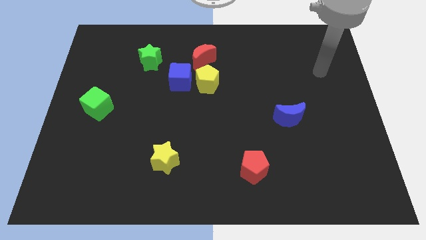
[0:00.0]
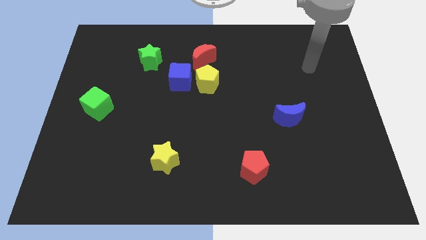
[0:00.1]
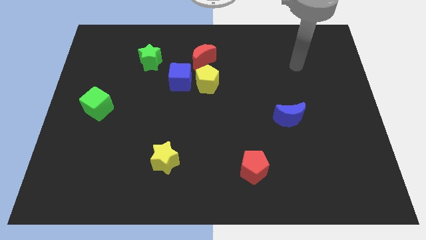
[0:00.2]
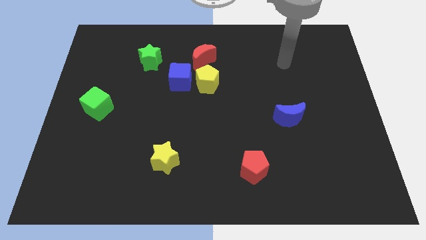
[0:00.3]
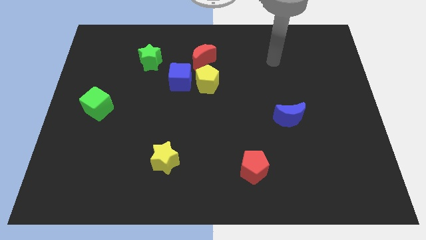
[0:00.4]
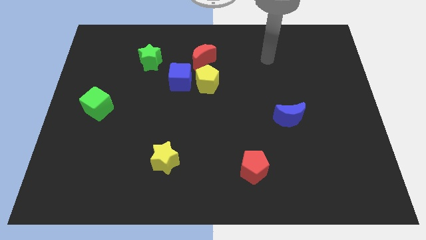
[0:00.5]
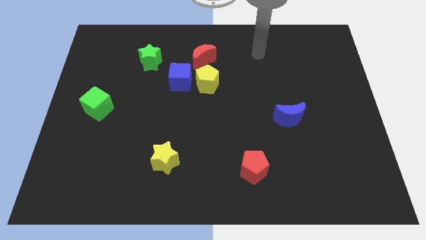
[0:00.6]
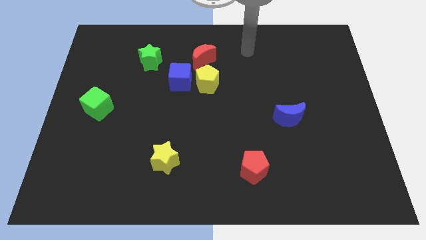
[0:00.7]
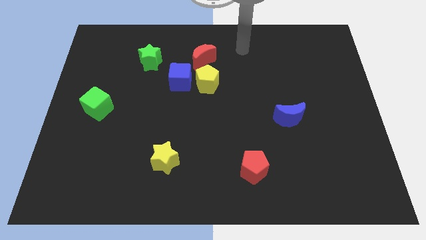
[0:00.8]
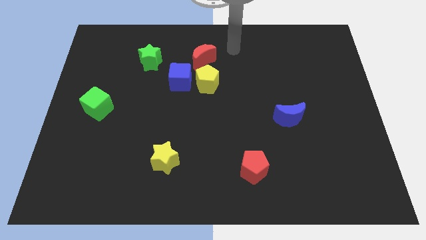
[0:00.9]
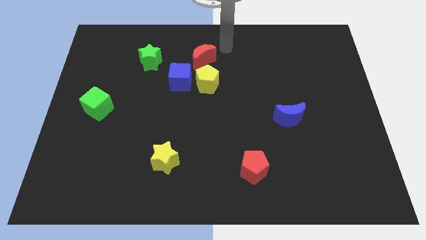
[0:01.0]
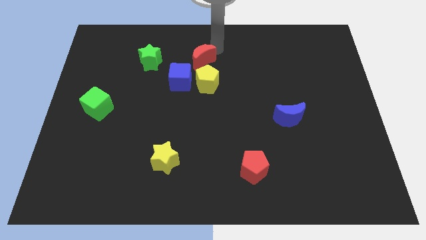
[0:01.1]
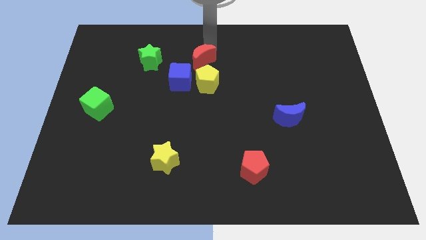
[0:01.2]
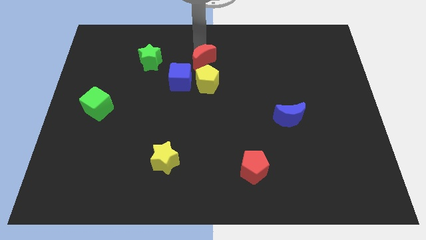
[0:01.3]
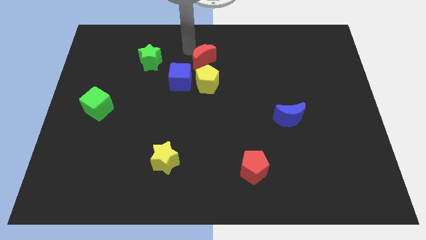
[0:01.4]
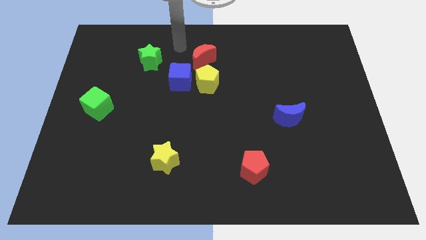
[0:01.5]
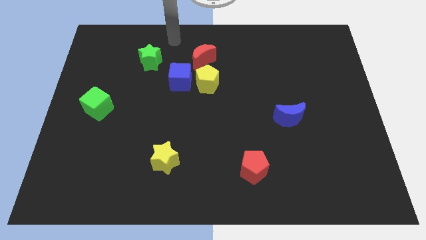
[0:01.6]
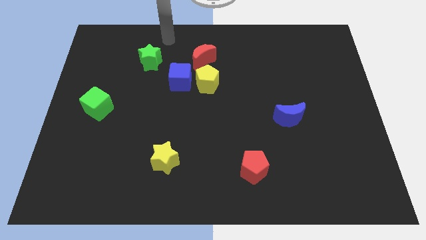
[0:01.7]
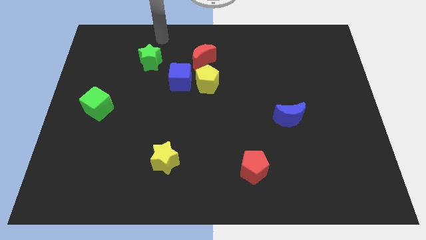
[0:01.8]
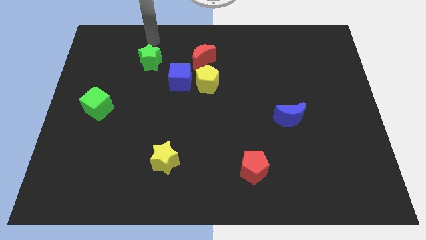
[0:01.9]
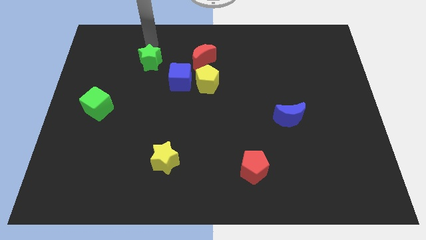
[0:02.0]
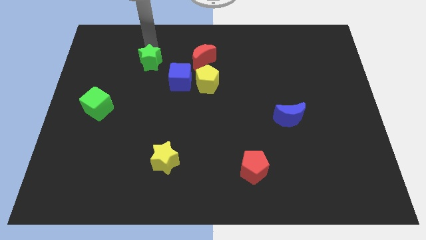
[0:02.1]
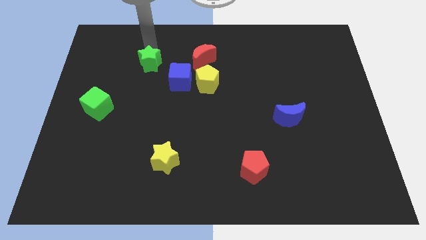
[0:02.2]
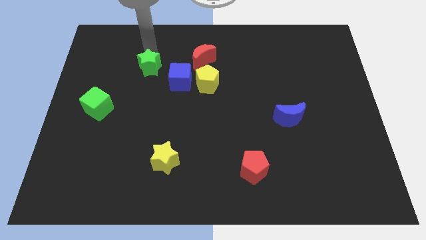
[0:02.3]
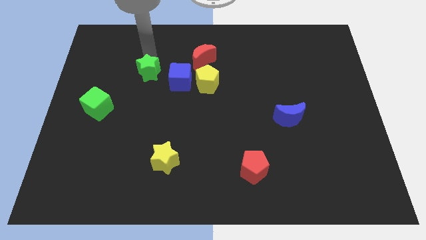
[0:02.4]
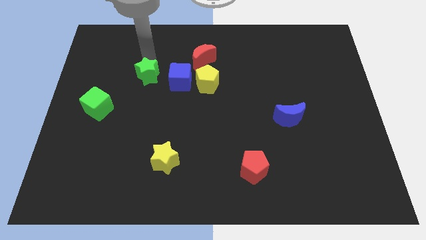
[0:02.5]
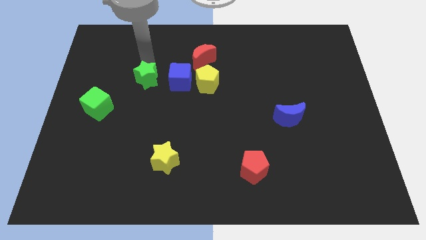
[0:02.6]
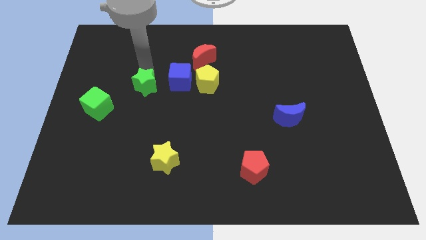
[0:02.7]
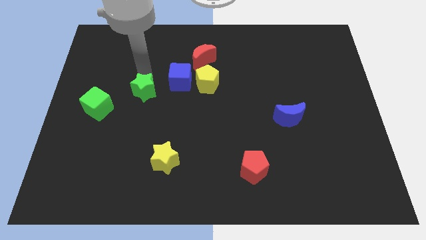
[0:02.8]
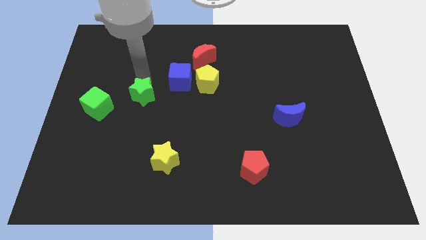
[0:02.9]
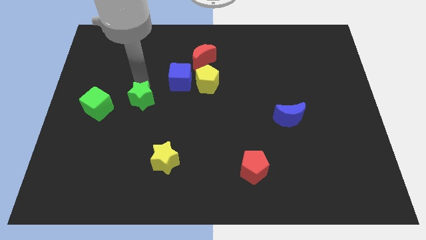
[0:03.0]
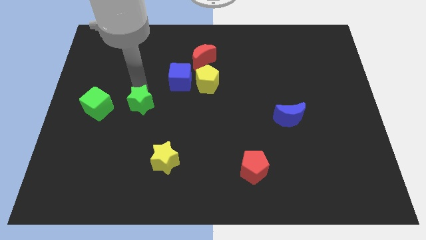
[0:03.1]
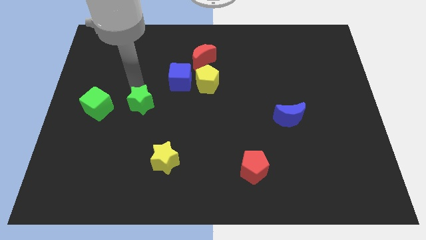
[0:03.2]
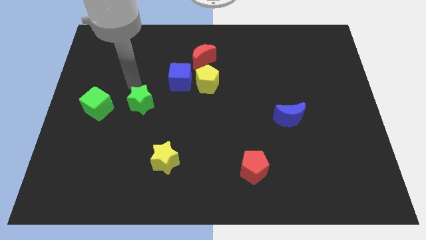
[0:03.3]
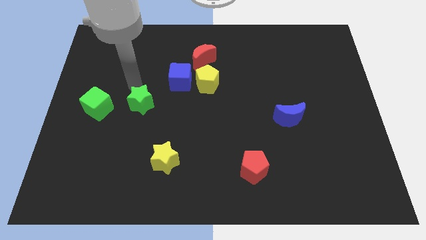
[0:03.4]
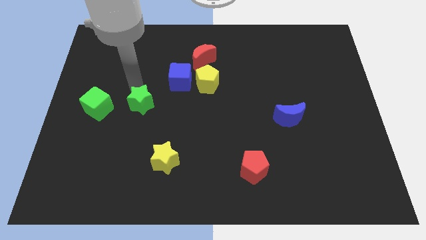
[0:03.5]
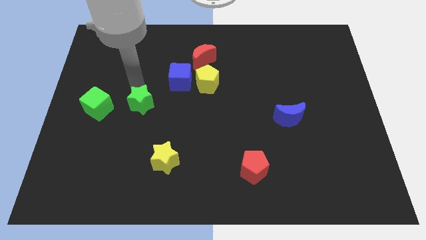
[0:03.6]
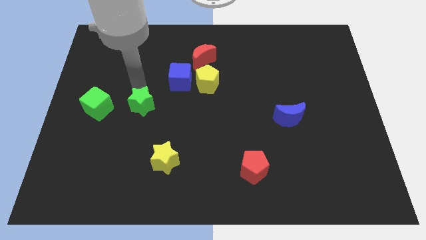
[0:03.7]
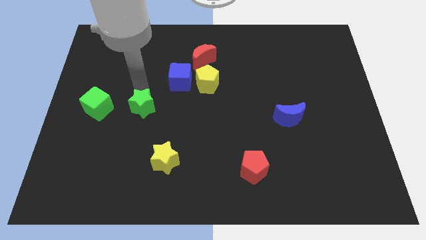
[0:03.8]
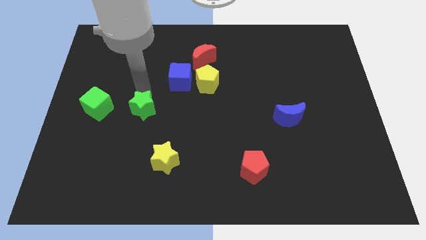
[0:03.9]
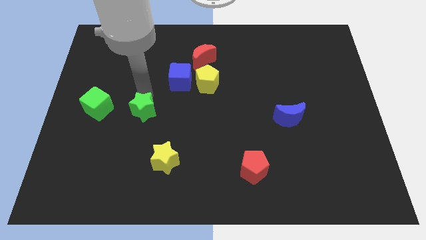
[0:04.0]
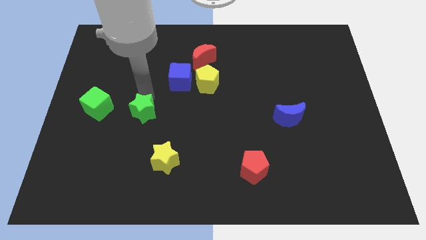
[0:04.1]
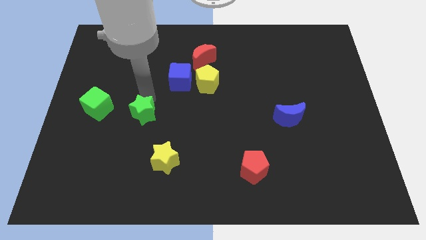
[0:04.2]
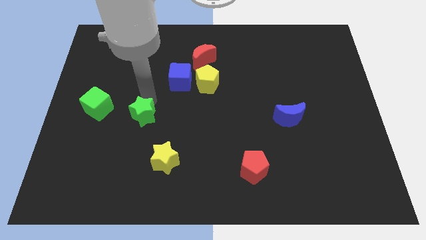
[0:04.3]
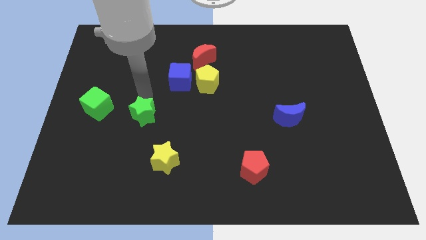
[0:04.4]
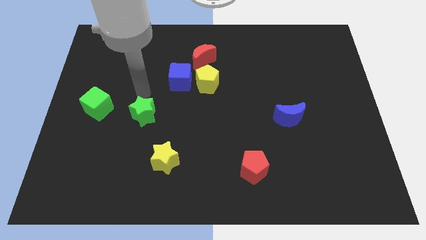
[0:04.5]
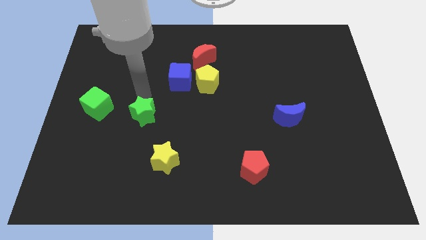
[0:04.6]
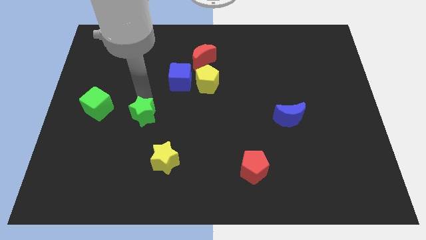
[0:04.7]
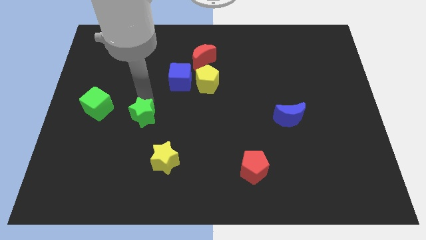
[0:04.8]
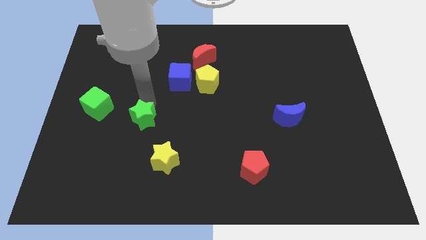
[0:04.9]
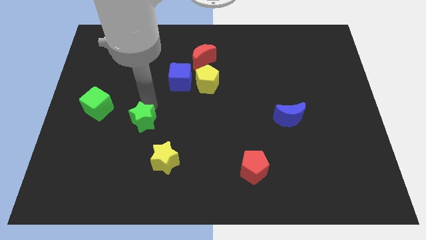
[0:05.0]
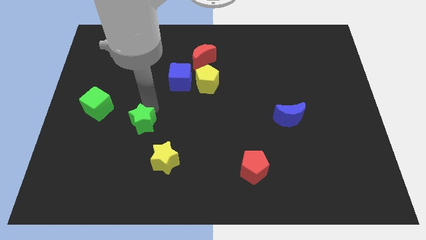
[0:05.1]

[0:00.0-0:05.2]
move the green star downwards

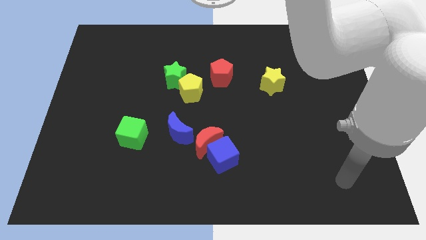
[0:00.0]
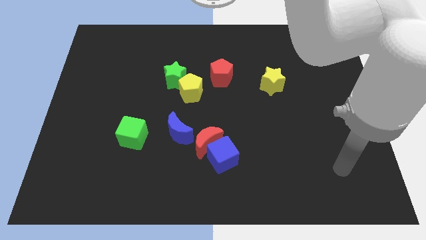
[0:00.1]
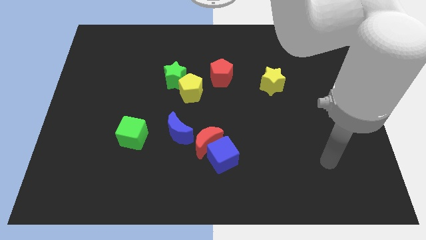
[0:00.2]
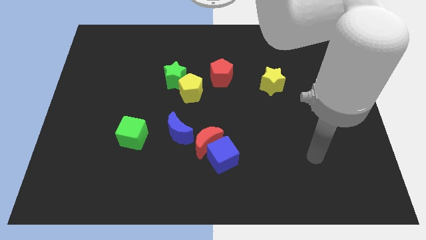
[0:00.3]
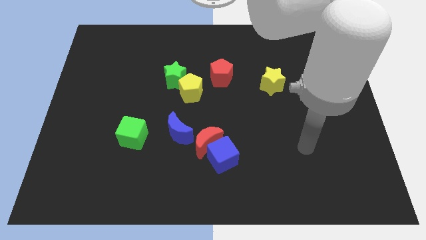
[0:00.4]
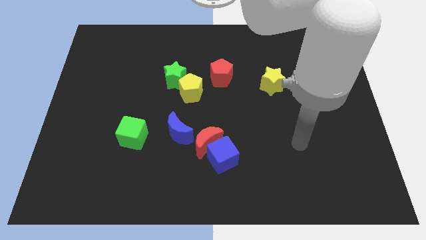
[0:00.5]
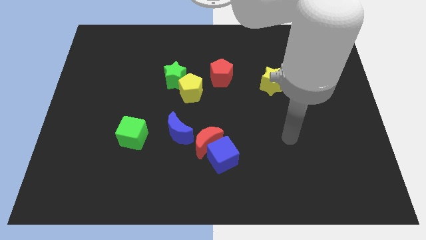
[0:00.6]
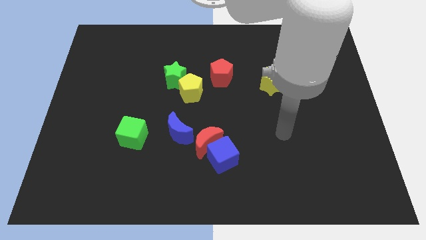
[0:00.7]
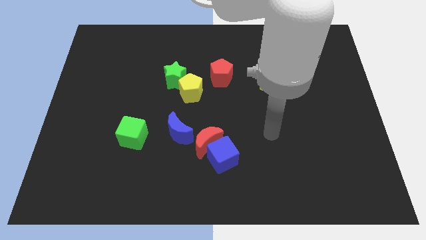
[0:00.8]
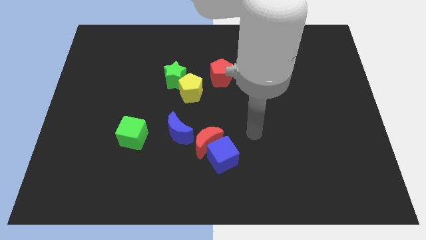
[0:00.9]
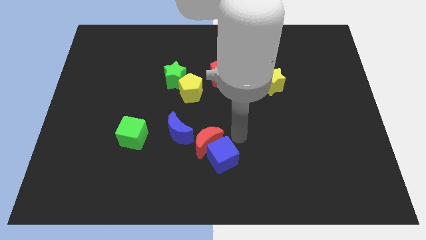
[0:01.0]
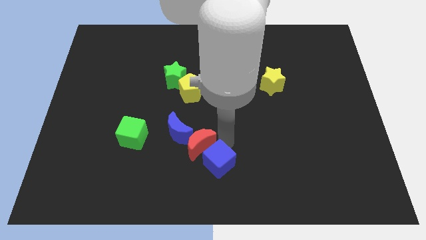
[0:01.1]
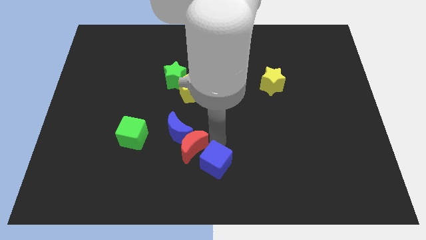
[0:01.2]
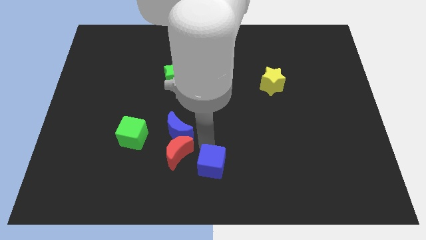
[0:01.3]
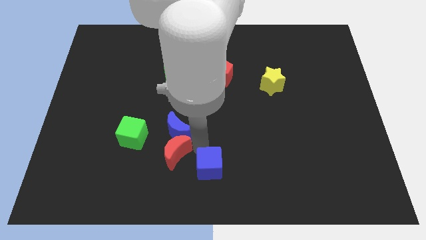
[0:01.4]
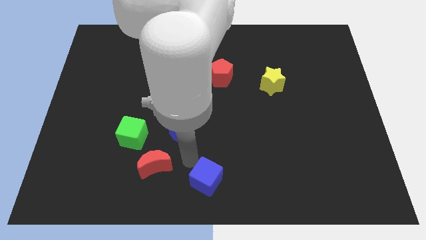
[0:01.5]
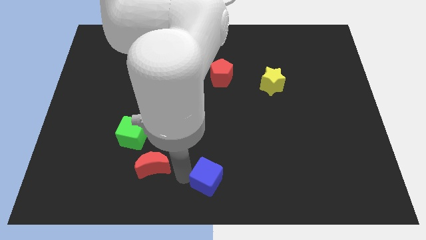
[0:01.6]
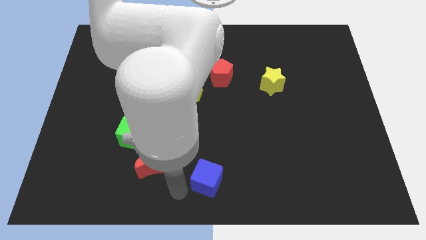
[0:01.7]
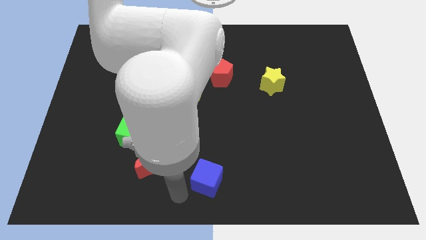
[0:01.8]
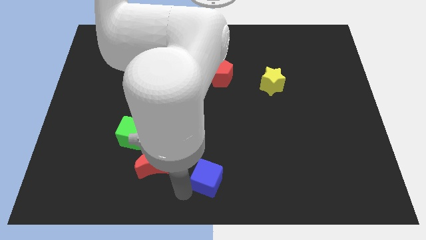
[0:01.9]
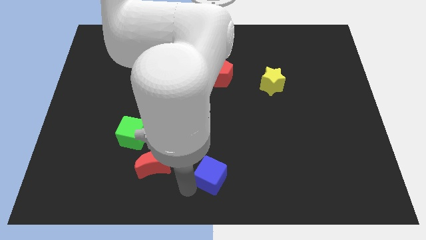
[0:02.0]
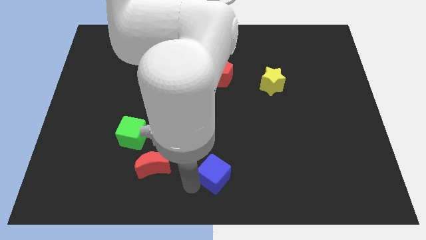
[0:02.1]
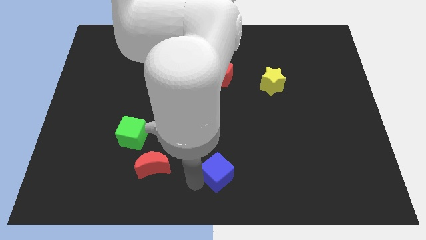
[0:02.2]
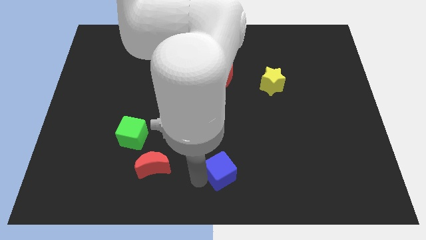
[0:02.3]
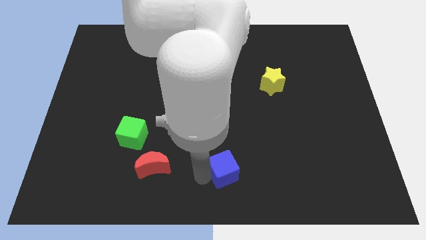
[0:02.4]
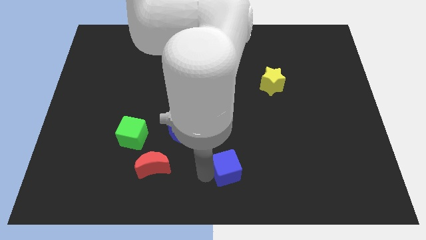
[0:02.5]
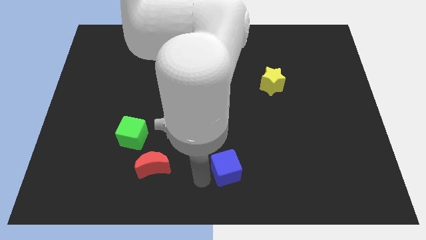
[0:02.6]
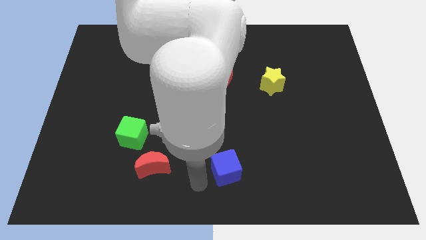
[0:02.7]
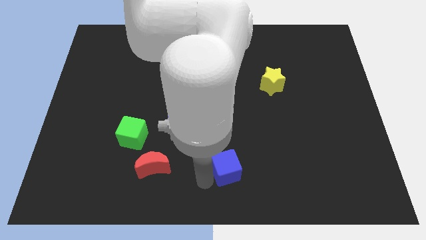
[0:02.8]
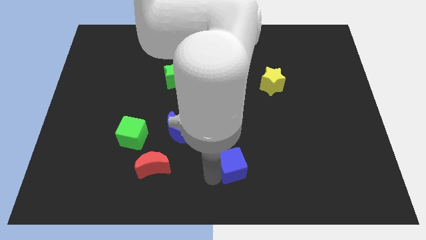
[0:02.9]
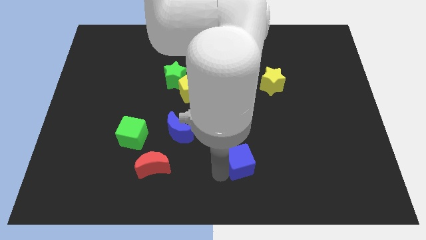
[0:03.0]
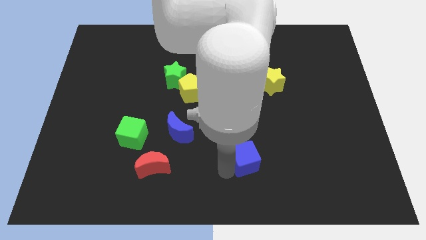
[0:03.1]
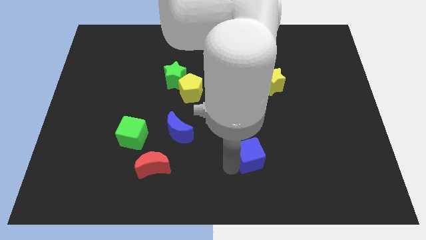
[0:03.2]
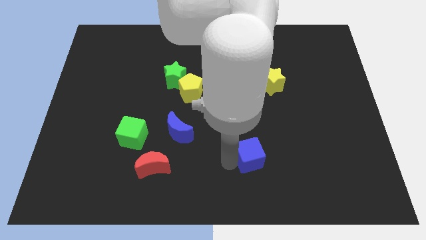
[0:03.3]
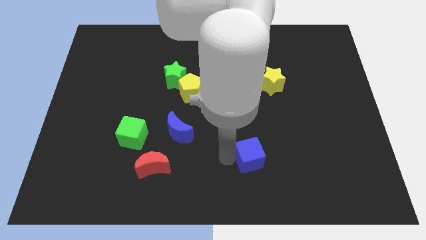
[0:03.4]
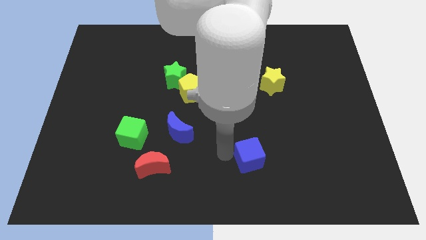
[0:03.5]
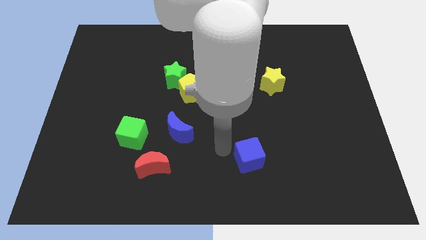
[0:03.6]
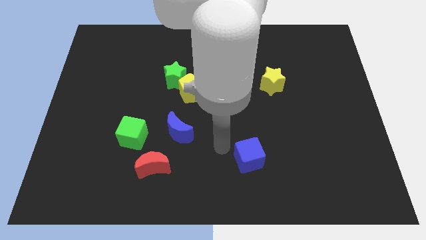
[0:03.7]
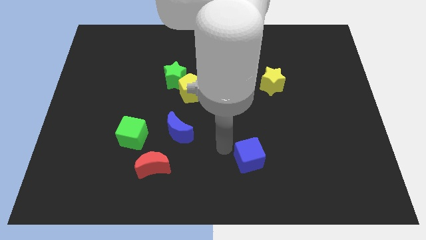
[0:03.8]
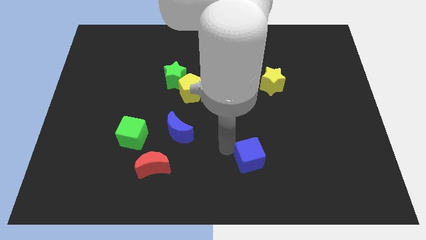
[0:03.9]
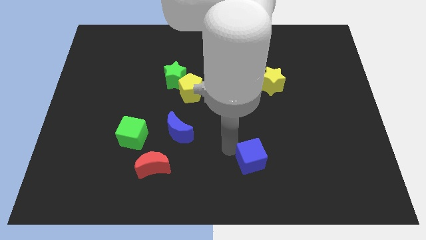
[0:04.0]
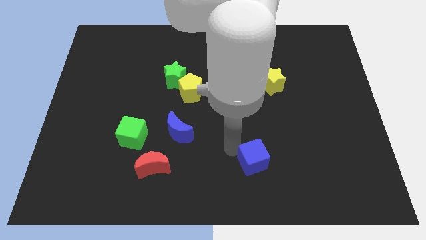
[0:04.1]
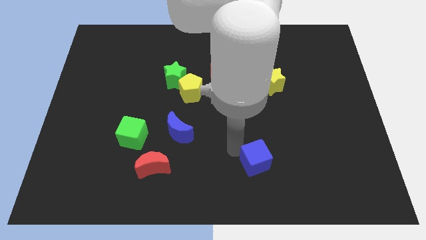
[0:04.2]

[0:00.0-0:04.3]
slide the blue cube a little to the right
